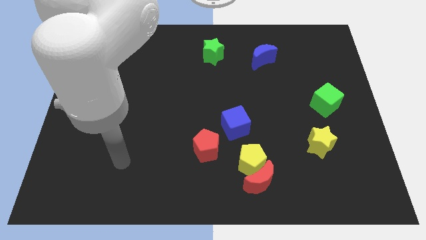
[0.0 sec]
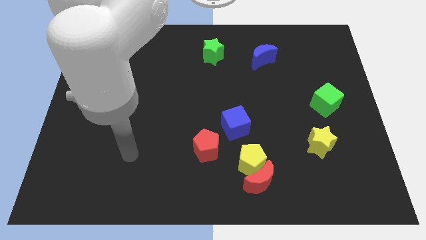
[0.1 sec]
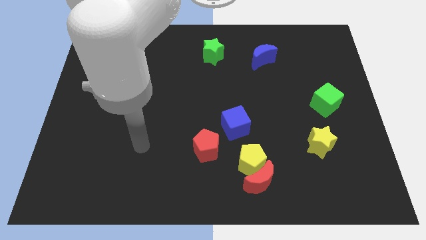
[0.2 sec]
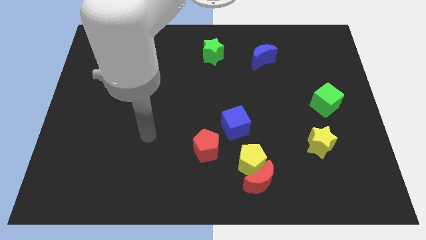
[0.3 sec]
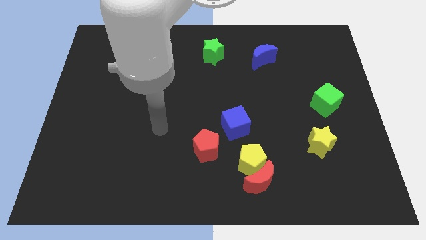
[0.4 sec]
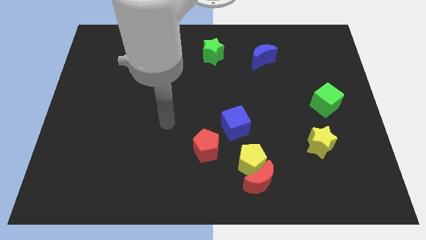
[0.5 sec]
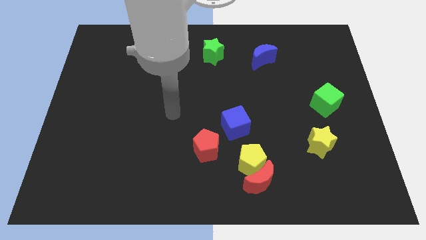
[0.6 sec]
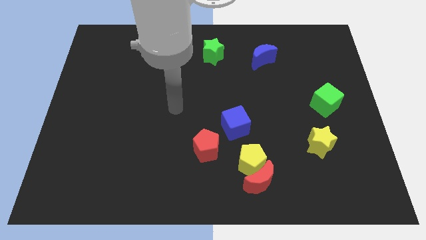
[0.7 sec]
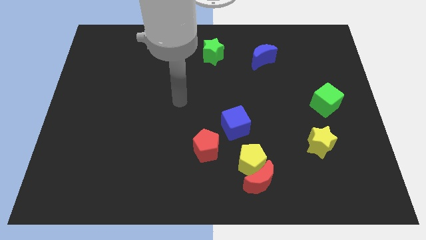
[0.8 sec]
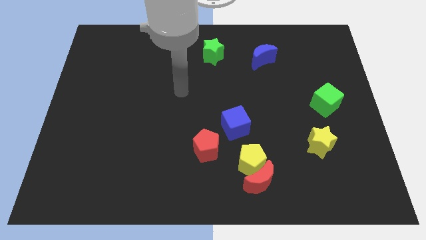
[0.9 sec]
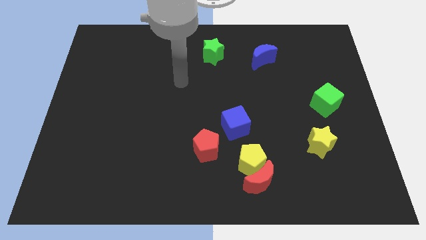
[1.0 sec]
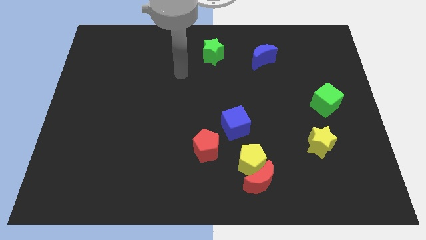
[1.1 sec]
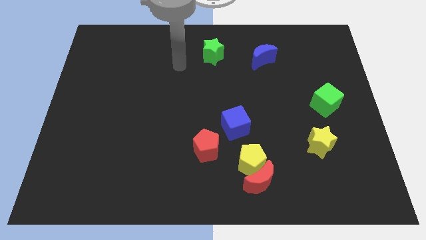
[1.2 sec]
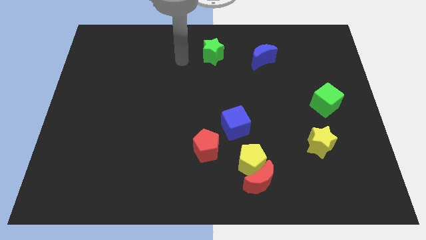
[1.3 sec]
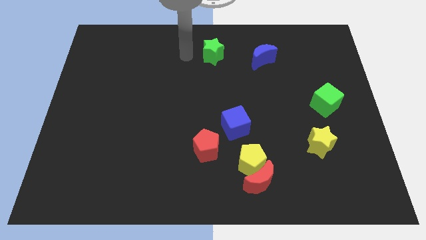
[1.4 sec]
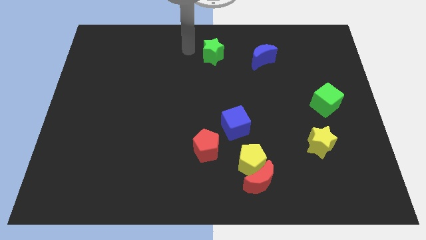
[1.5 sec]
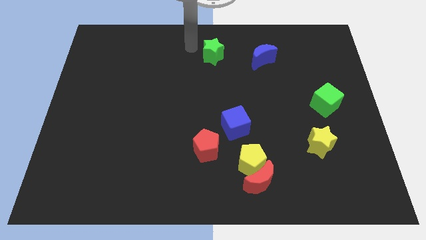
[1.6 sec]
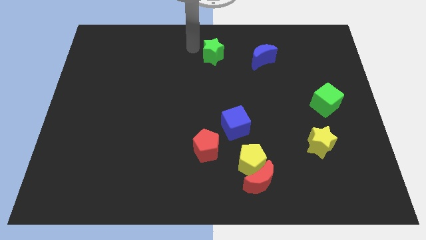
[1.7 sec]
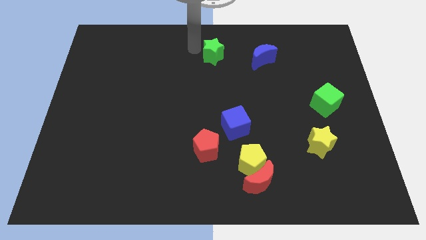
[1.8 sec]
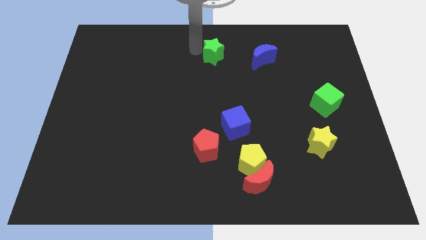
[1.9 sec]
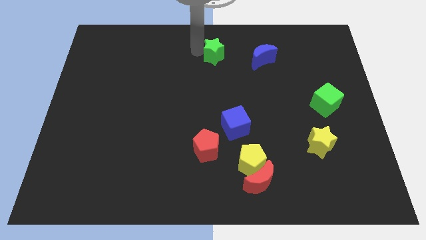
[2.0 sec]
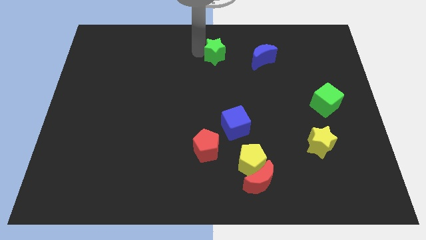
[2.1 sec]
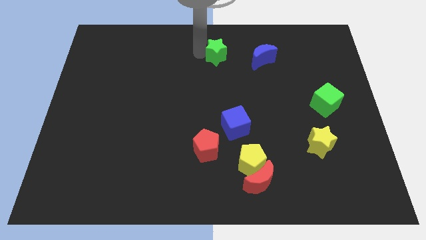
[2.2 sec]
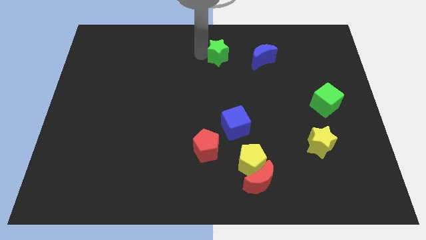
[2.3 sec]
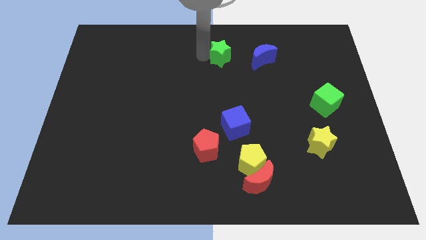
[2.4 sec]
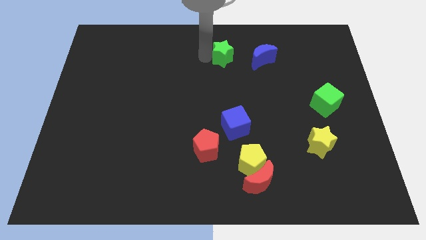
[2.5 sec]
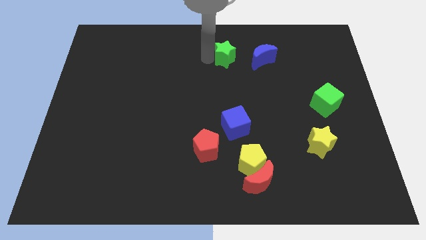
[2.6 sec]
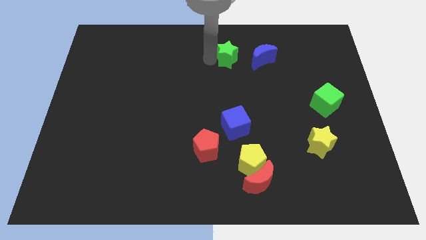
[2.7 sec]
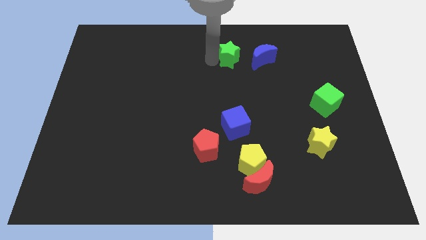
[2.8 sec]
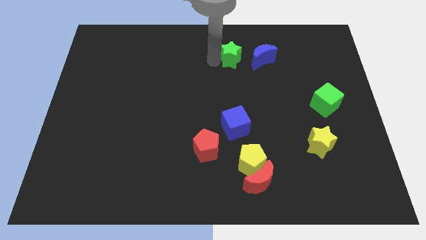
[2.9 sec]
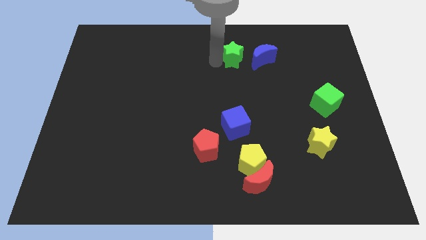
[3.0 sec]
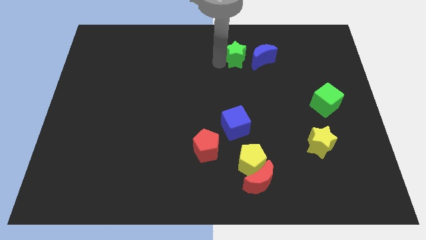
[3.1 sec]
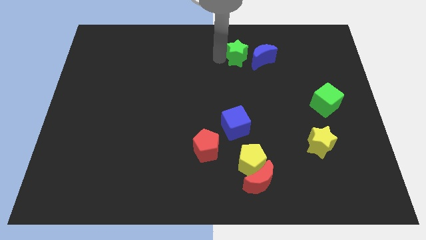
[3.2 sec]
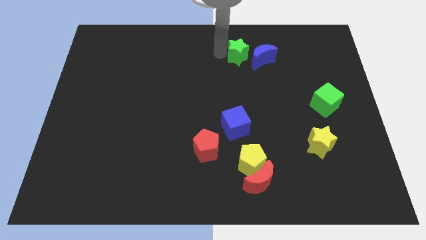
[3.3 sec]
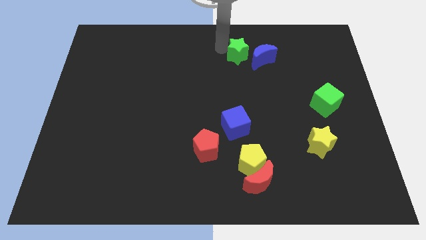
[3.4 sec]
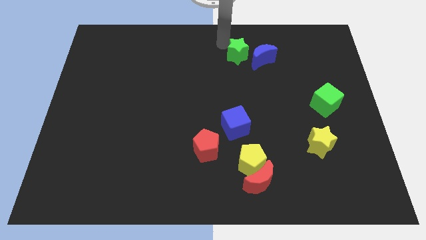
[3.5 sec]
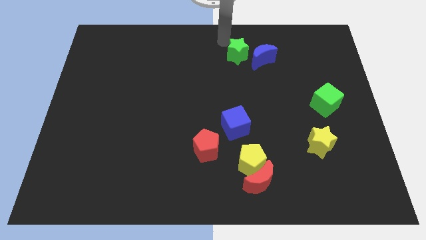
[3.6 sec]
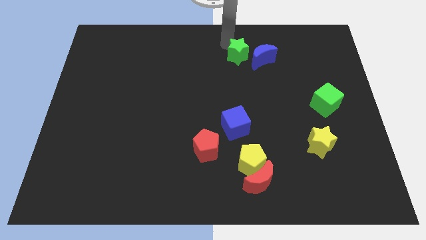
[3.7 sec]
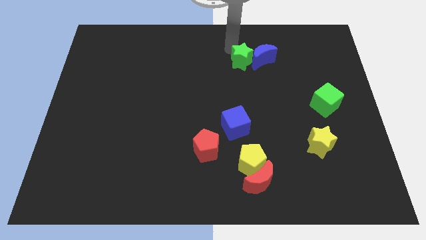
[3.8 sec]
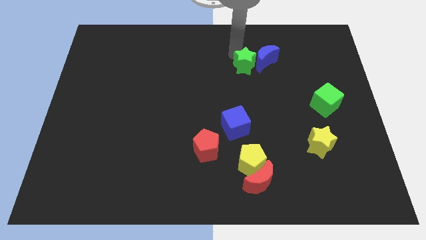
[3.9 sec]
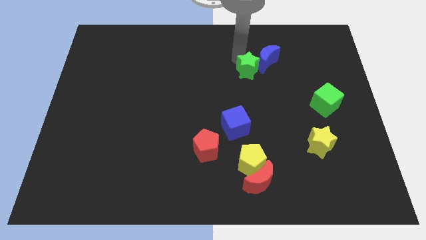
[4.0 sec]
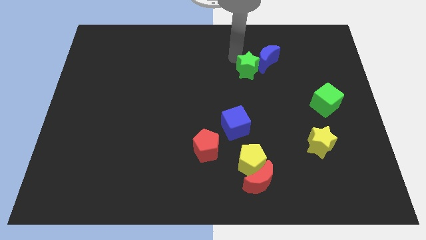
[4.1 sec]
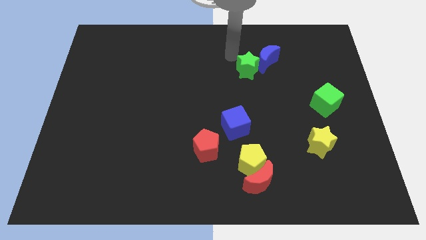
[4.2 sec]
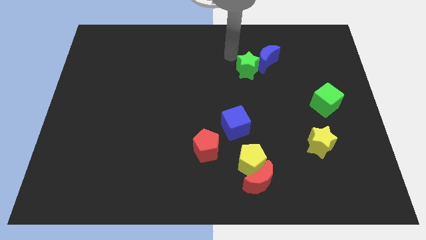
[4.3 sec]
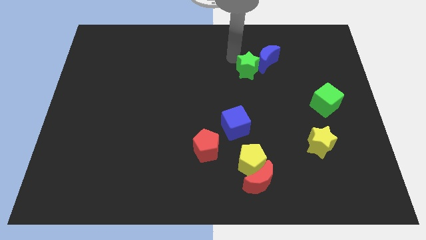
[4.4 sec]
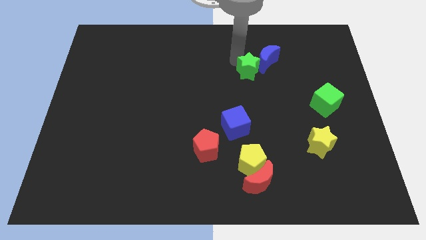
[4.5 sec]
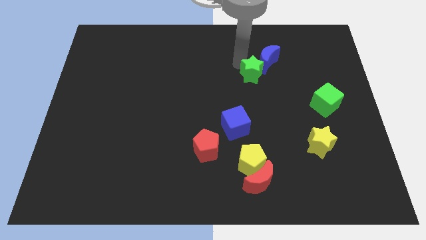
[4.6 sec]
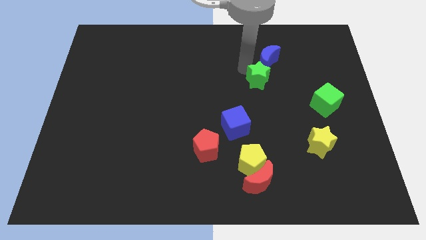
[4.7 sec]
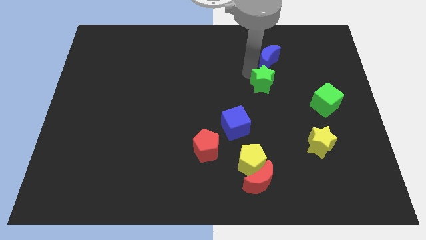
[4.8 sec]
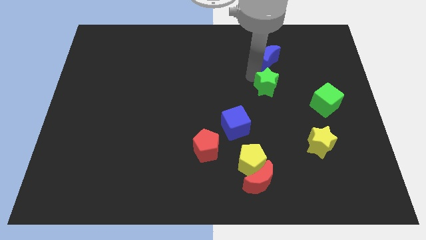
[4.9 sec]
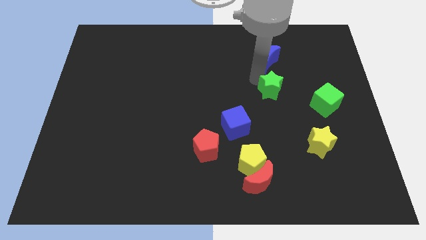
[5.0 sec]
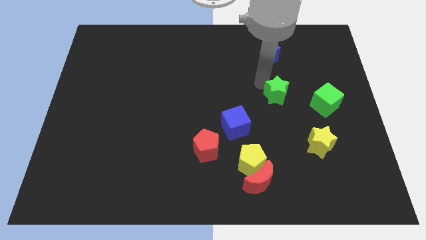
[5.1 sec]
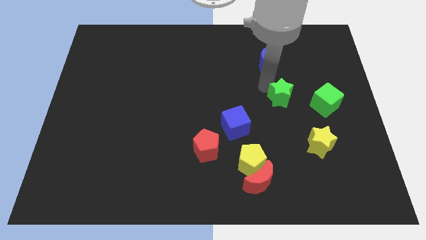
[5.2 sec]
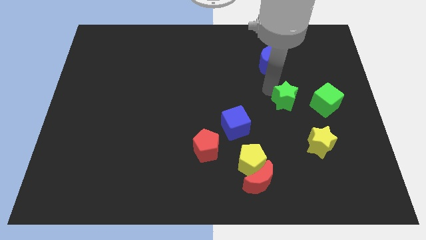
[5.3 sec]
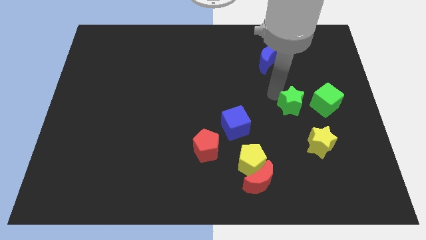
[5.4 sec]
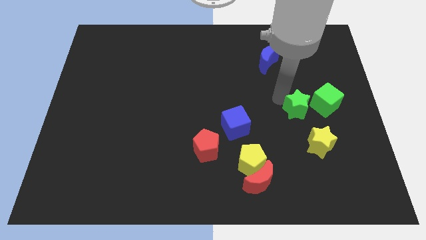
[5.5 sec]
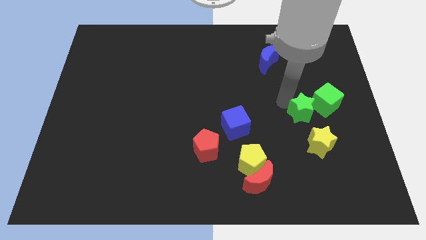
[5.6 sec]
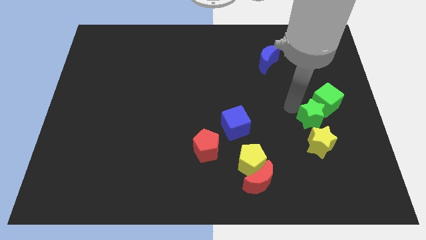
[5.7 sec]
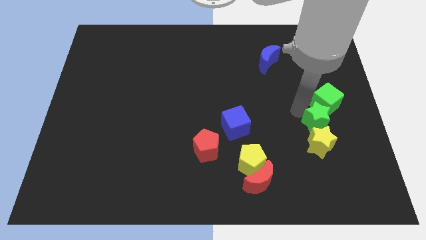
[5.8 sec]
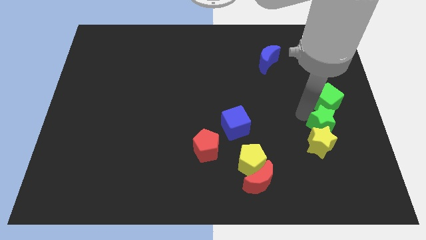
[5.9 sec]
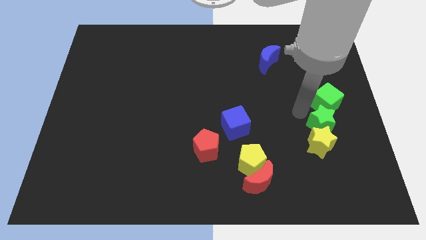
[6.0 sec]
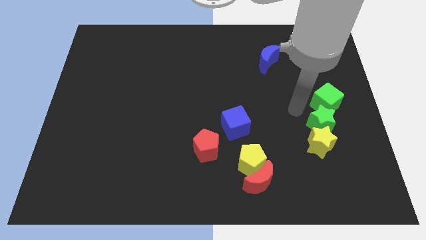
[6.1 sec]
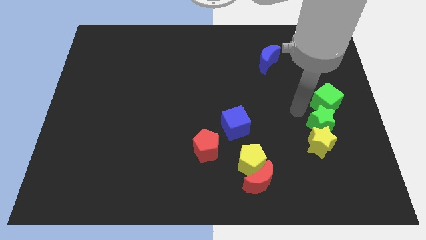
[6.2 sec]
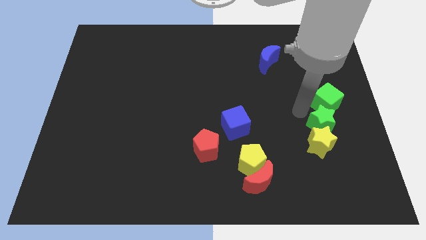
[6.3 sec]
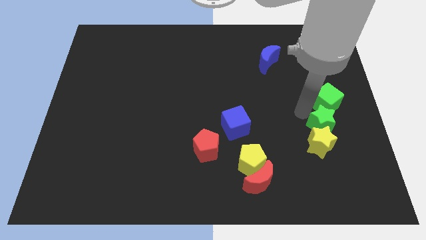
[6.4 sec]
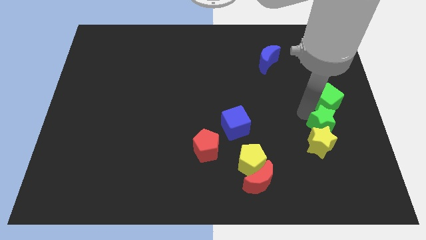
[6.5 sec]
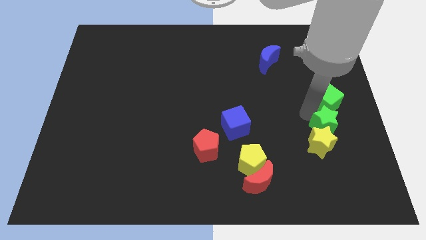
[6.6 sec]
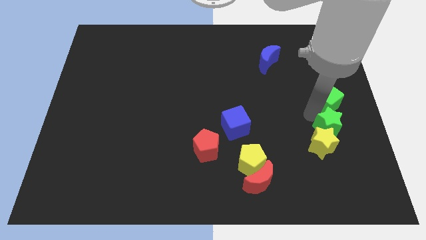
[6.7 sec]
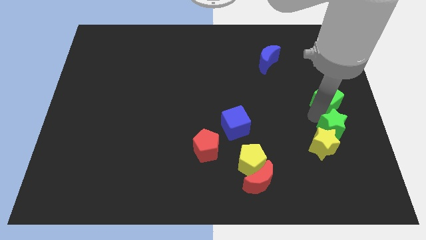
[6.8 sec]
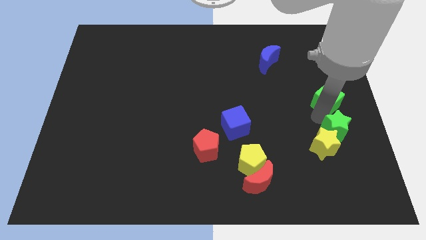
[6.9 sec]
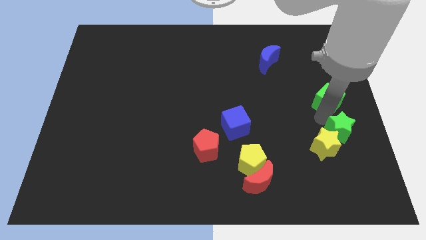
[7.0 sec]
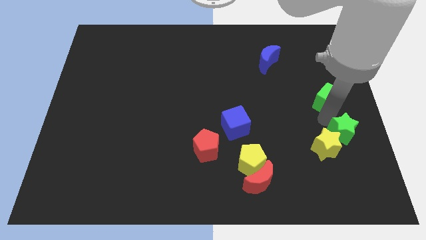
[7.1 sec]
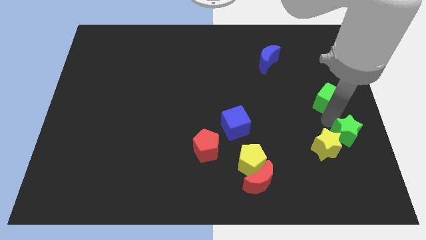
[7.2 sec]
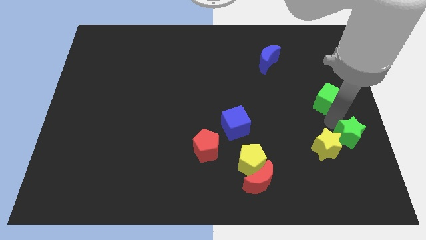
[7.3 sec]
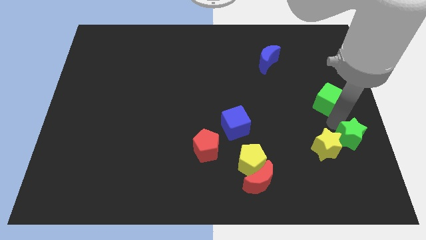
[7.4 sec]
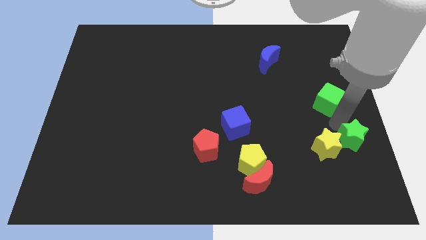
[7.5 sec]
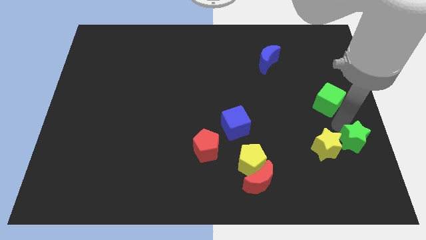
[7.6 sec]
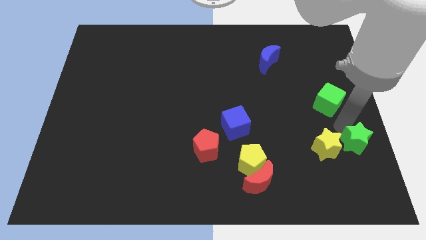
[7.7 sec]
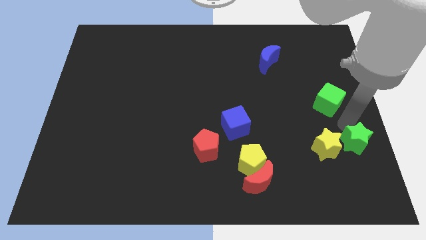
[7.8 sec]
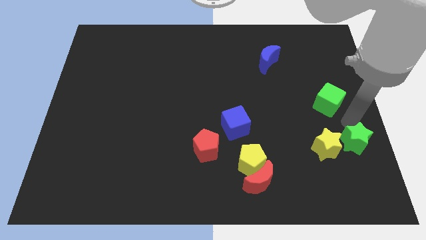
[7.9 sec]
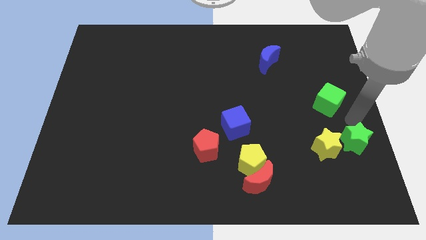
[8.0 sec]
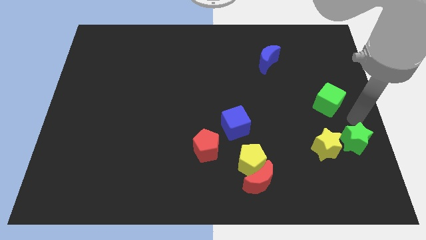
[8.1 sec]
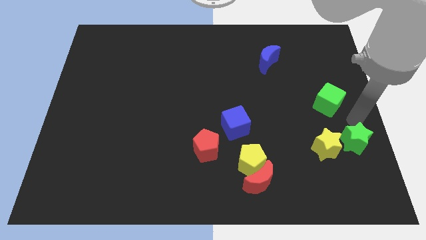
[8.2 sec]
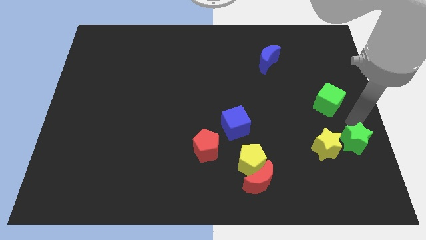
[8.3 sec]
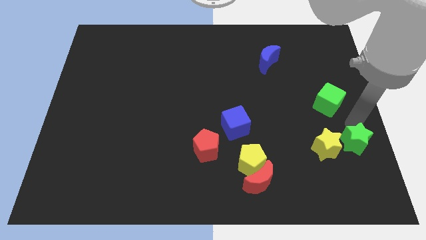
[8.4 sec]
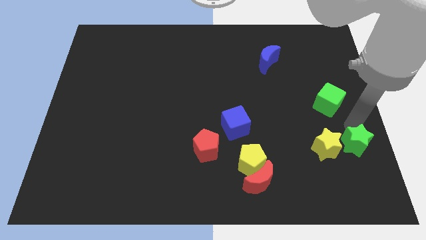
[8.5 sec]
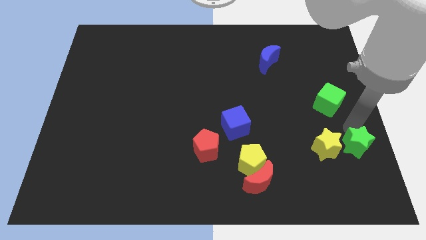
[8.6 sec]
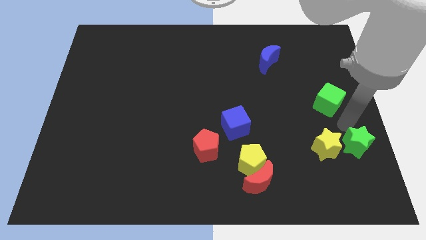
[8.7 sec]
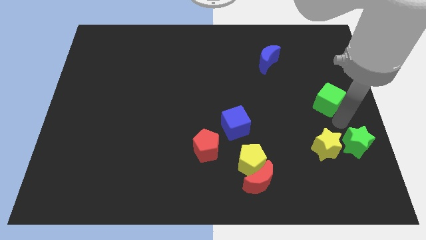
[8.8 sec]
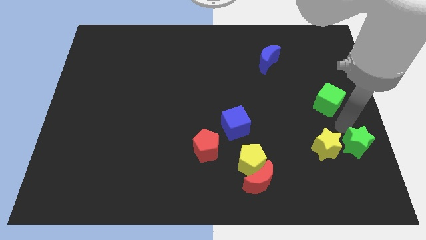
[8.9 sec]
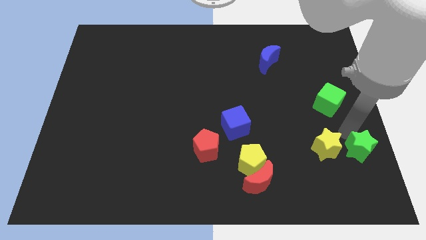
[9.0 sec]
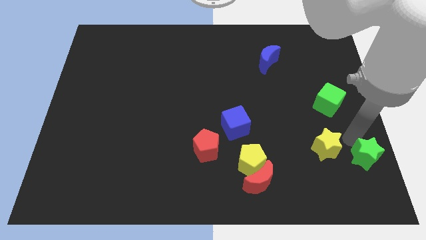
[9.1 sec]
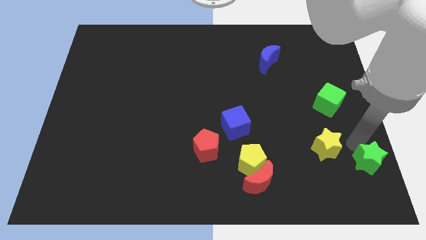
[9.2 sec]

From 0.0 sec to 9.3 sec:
slide the green star to the lower right corner
